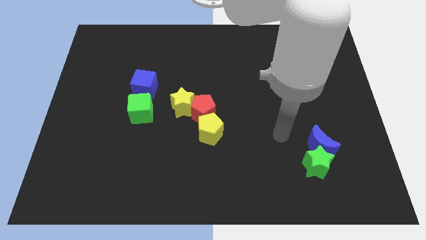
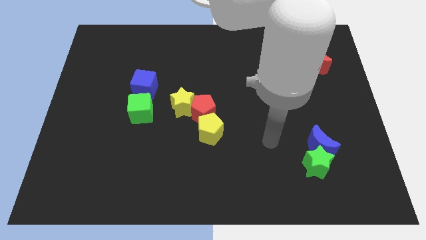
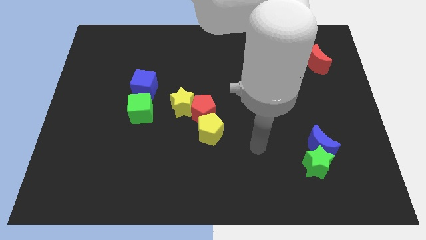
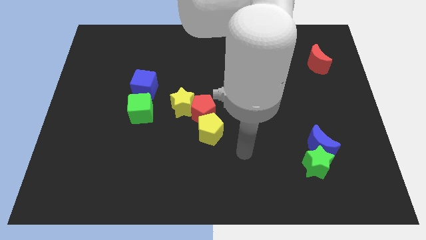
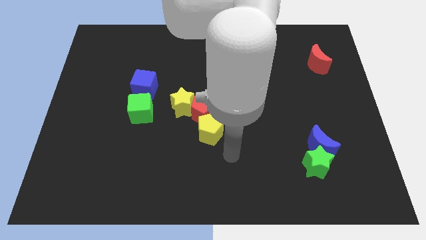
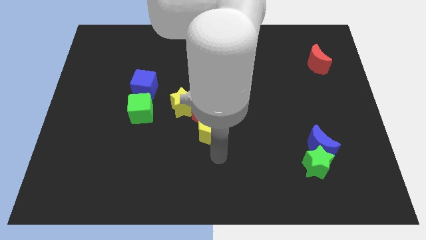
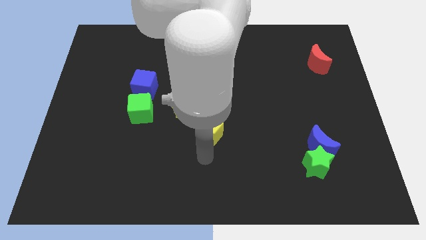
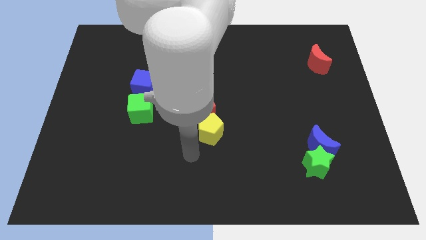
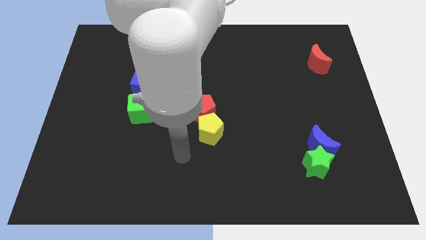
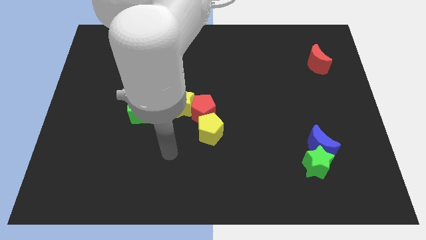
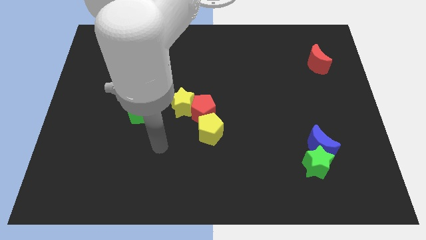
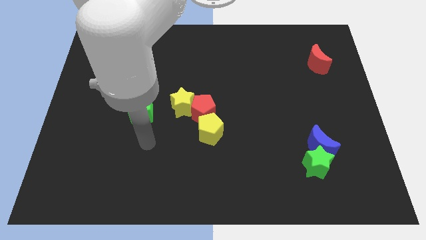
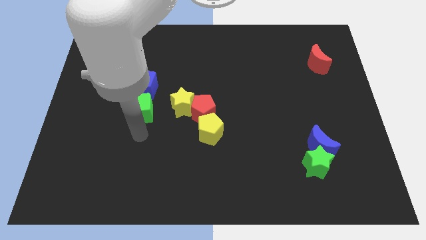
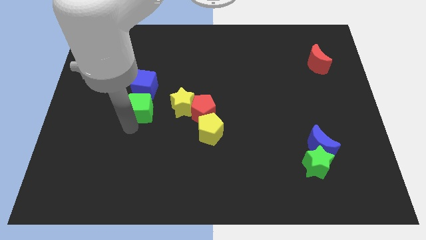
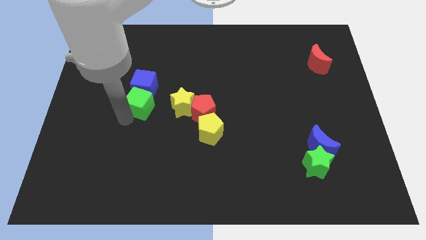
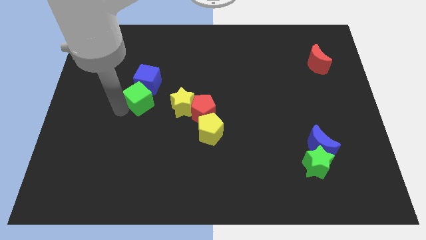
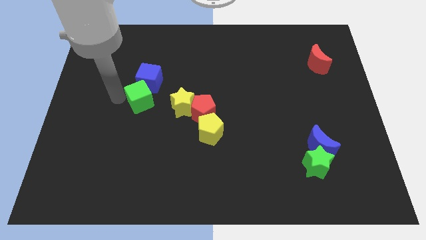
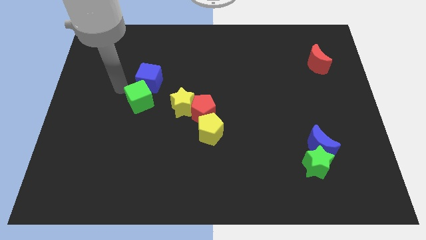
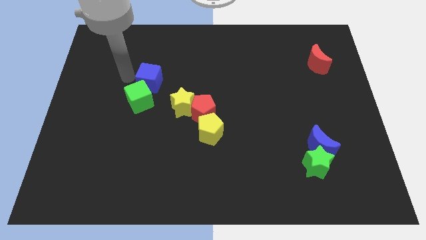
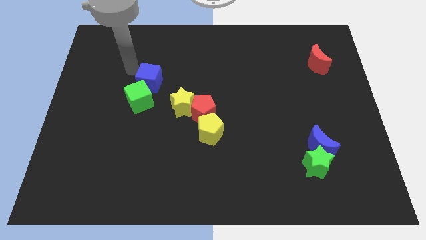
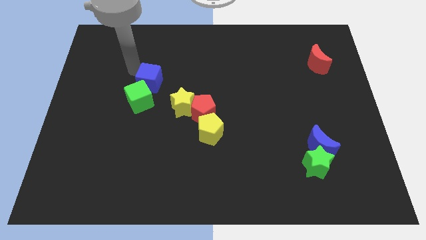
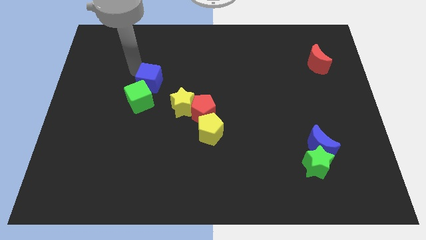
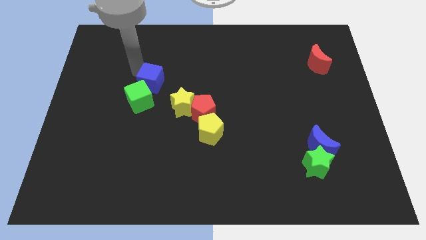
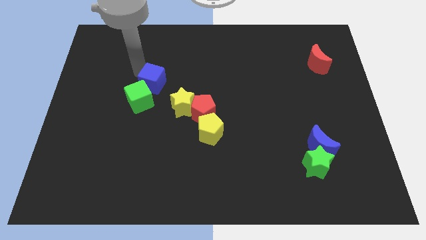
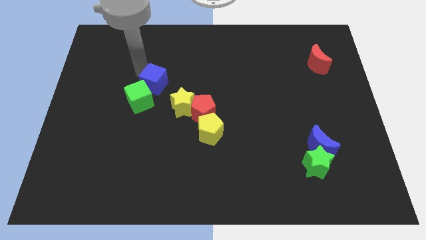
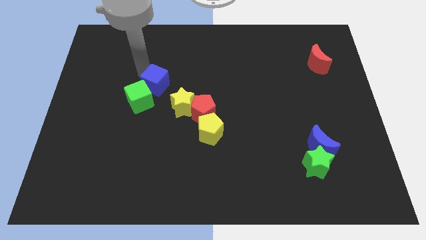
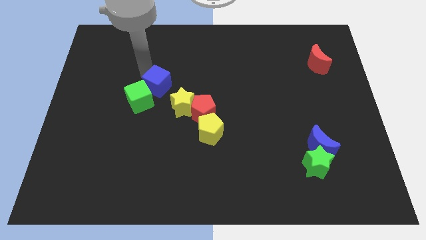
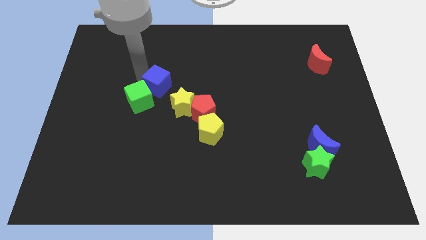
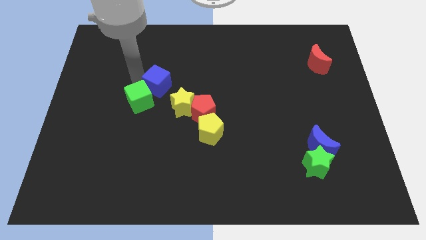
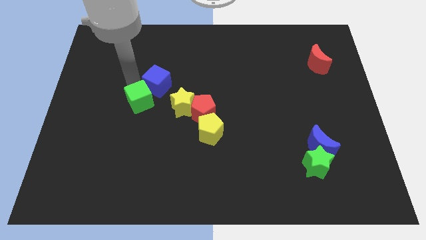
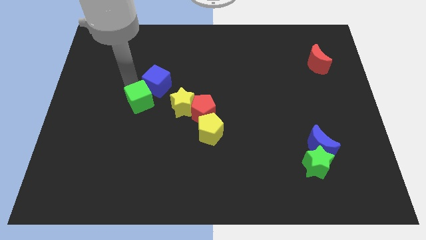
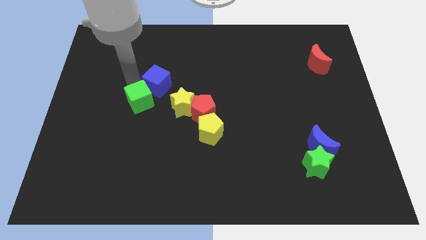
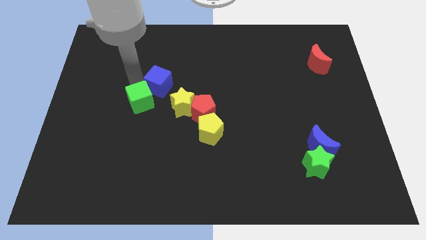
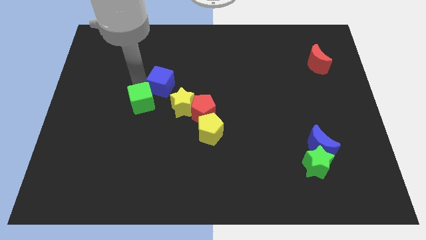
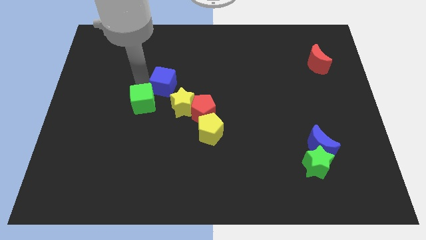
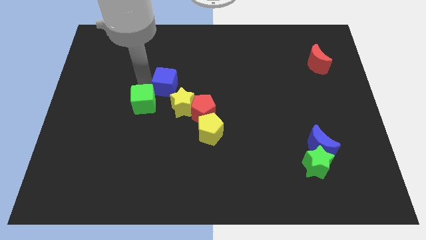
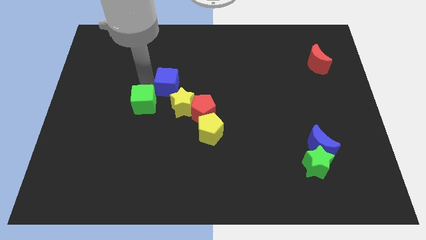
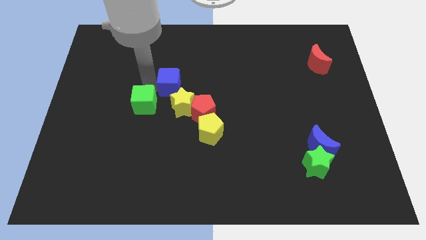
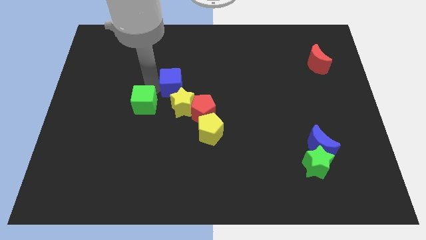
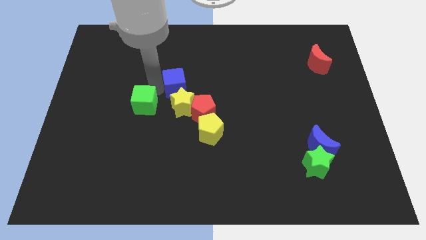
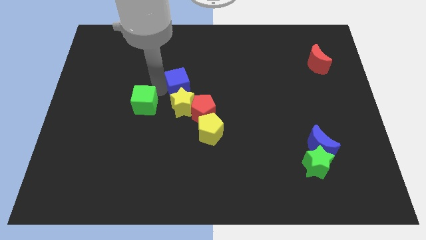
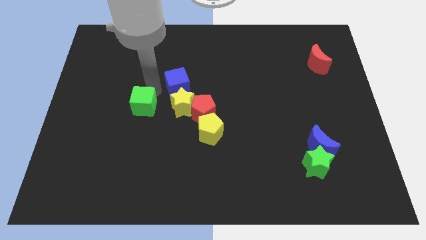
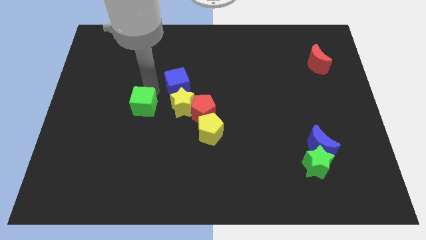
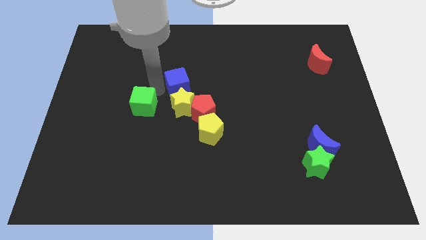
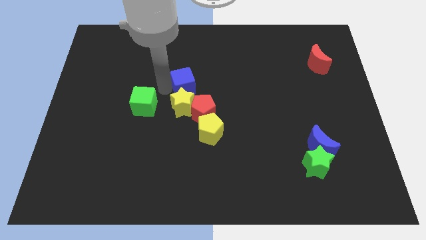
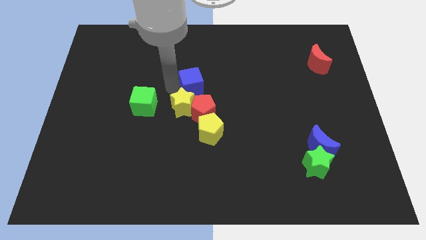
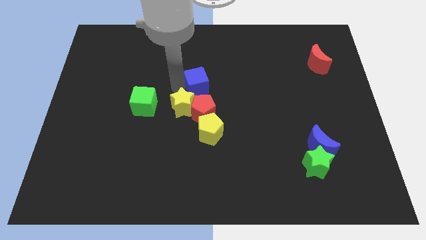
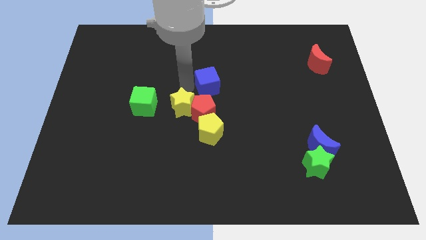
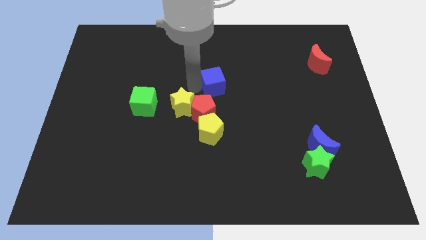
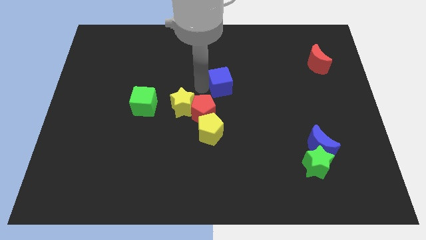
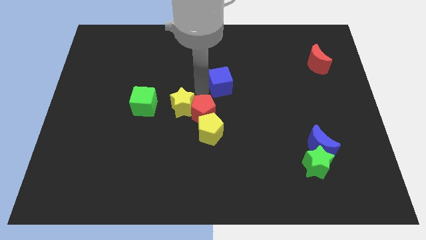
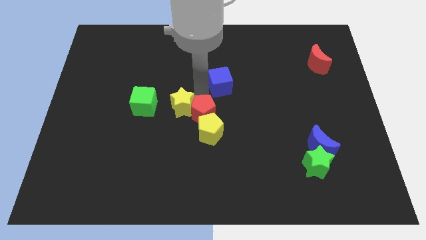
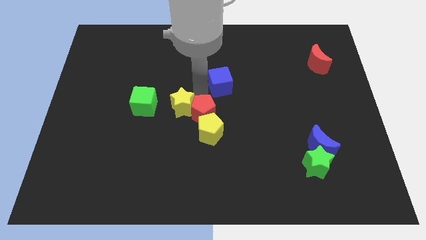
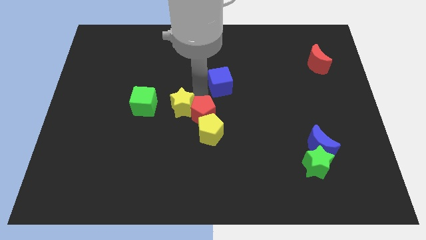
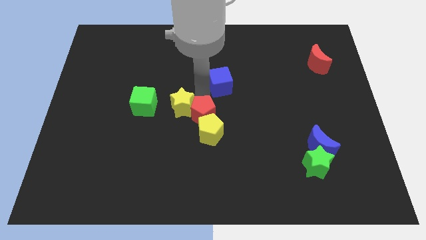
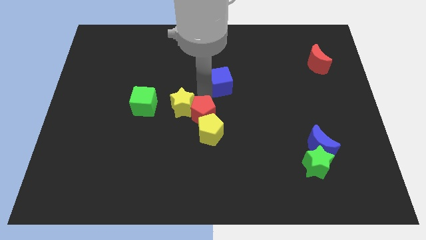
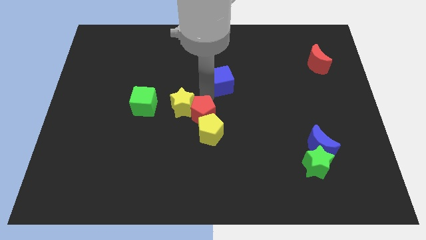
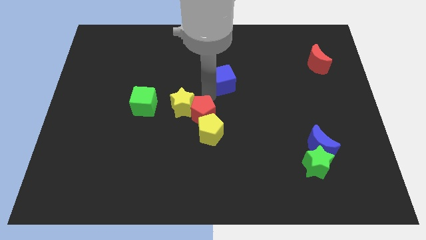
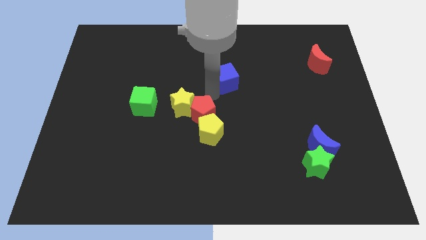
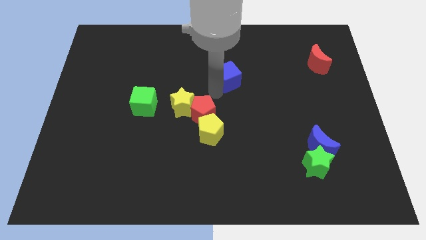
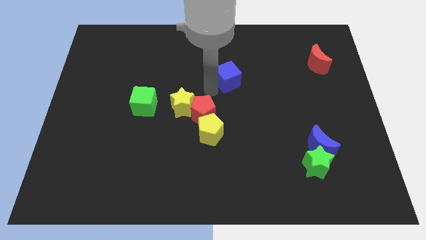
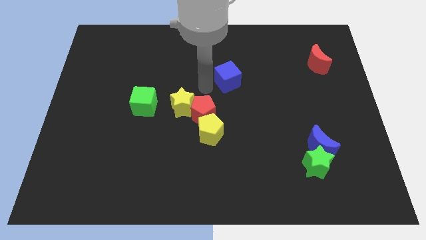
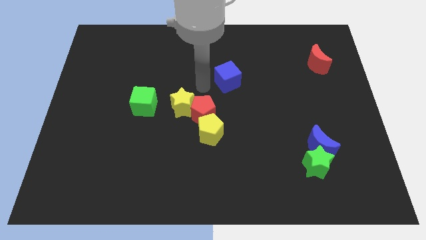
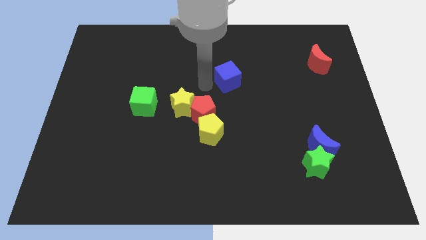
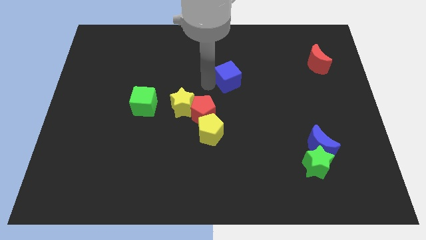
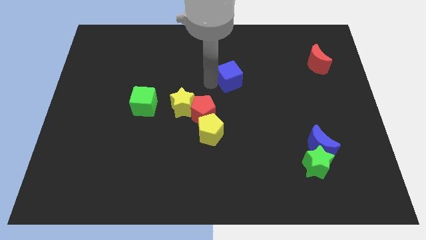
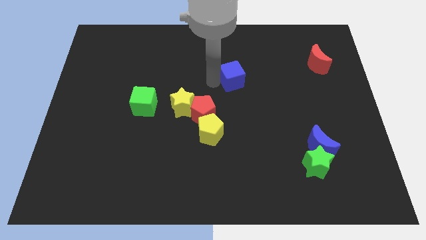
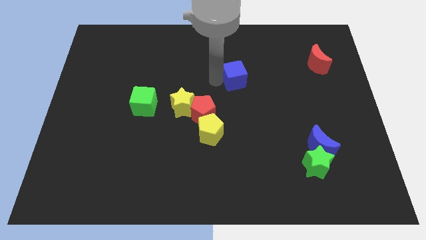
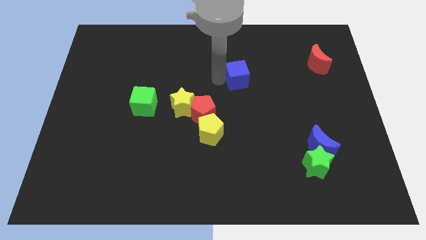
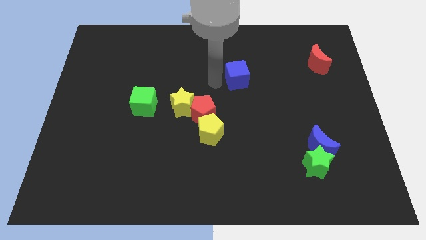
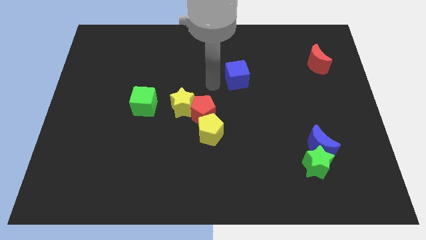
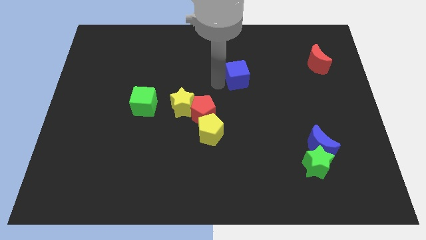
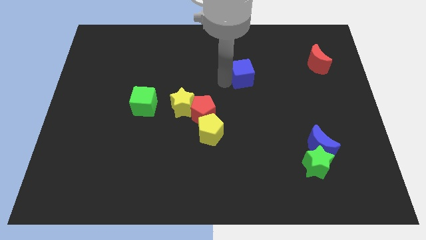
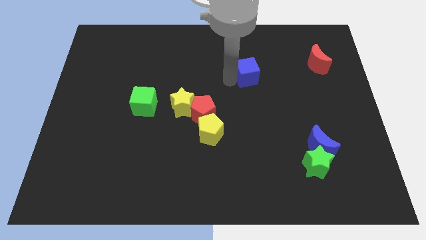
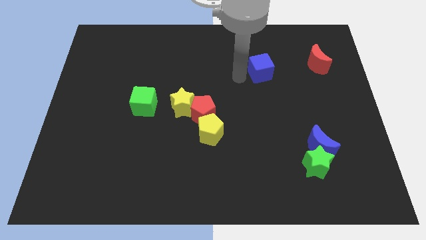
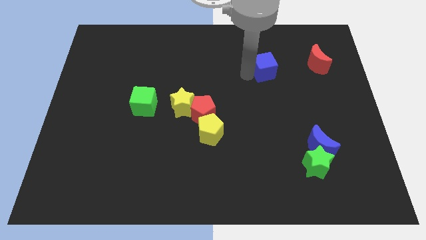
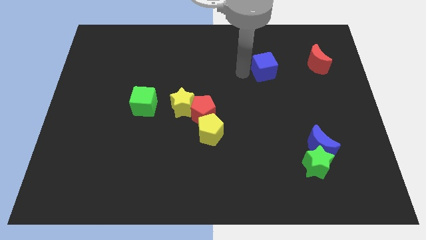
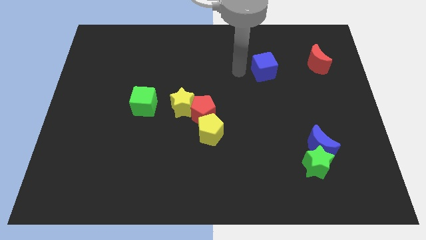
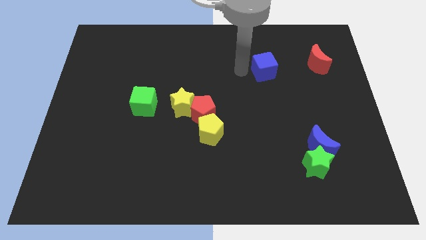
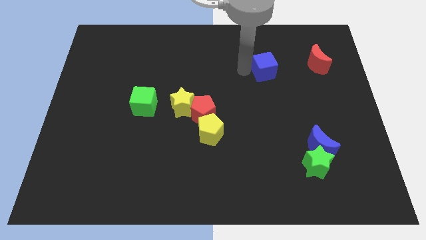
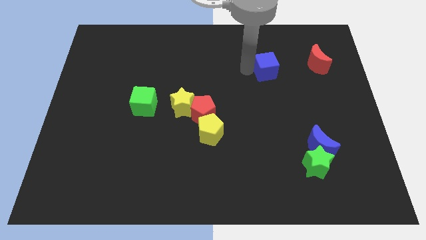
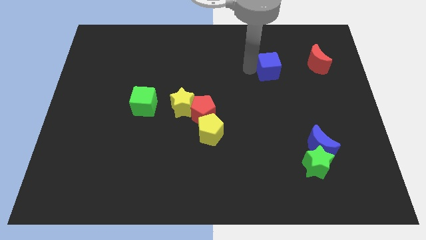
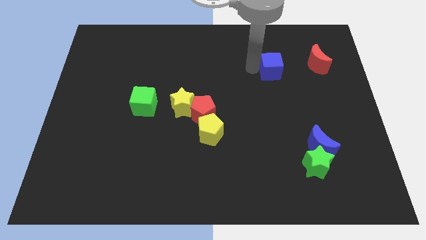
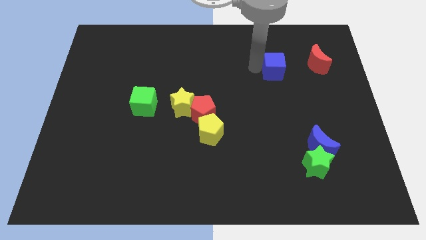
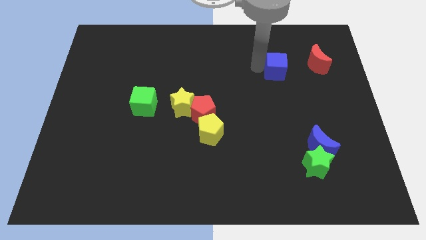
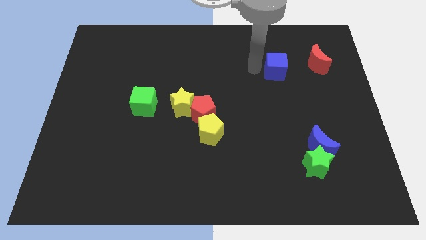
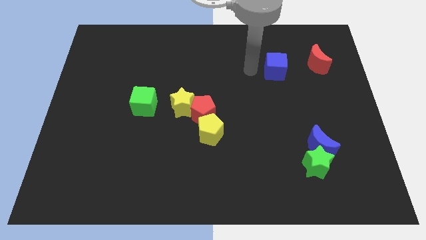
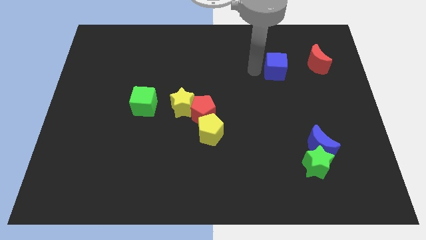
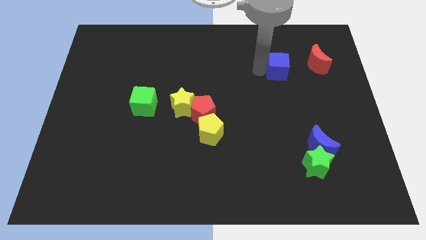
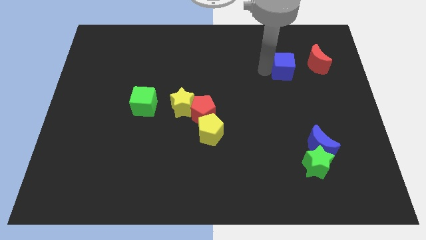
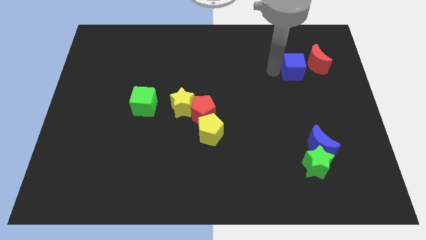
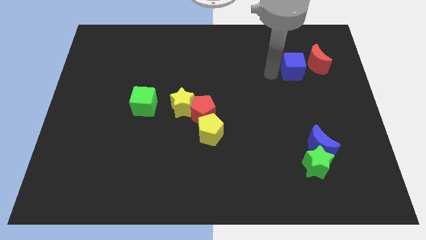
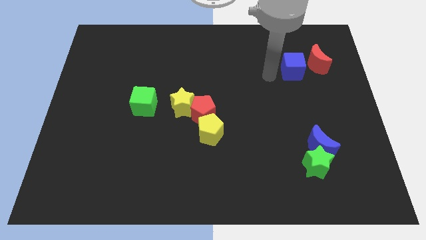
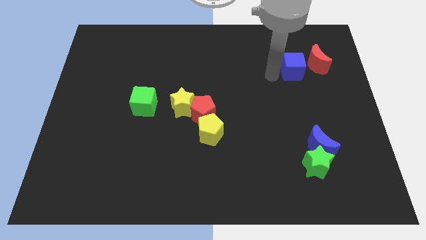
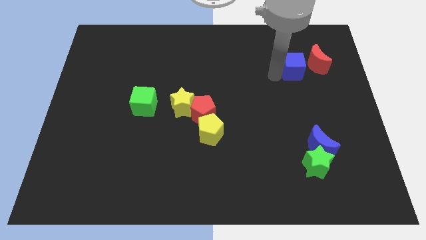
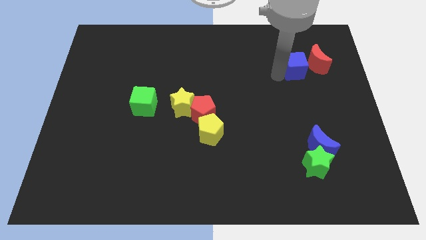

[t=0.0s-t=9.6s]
slide the blue cube to the red moon
